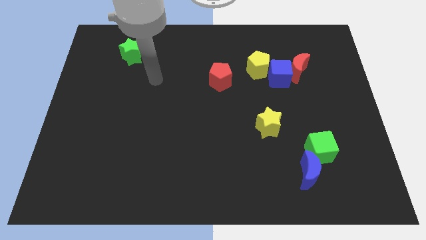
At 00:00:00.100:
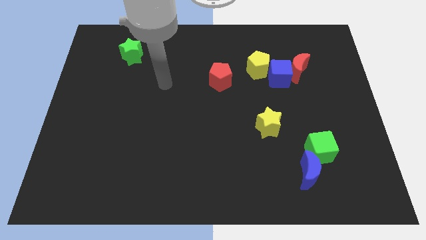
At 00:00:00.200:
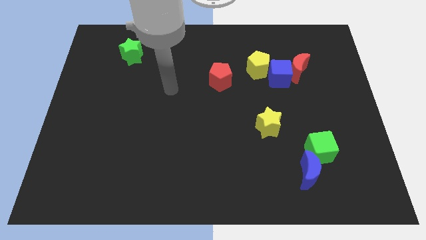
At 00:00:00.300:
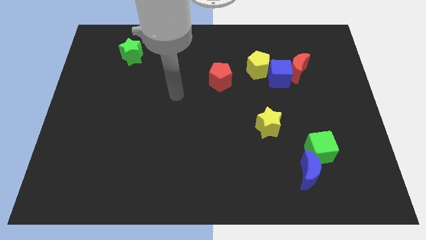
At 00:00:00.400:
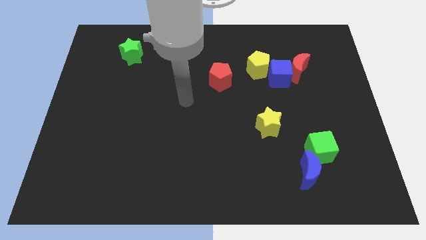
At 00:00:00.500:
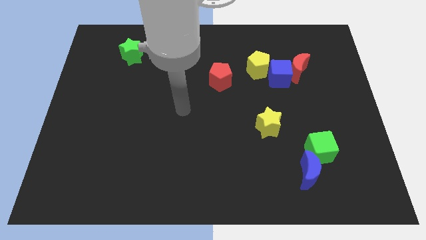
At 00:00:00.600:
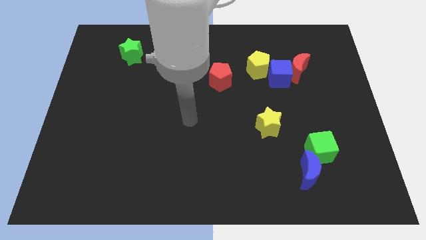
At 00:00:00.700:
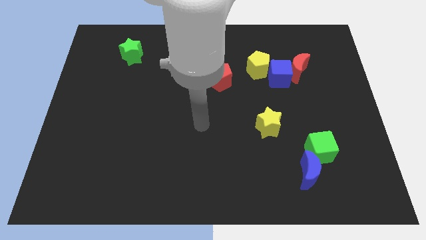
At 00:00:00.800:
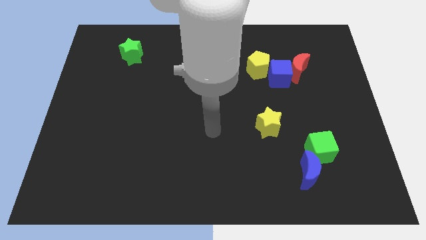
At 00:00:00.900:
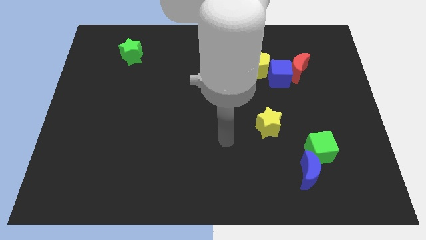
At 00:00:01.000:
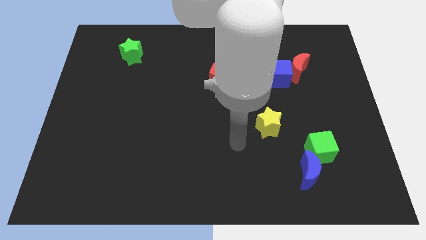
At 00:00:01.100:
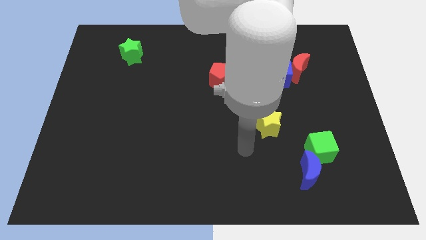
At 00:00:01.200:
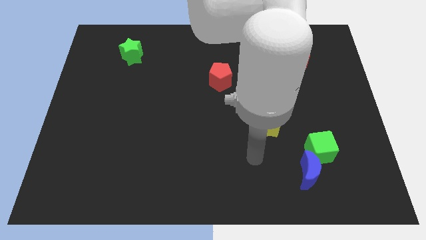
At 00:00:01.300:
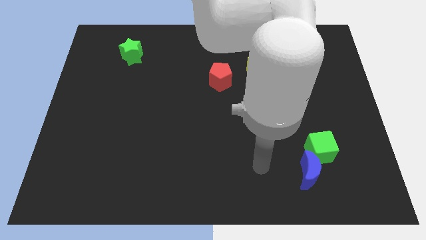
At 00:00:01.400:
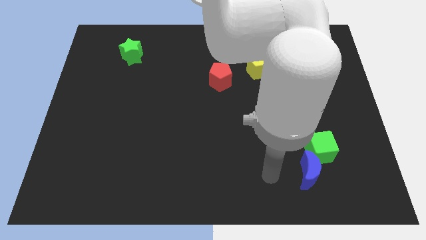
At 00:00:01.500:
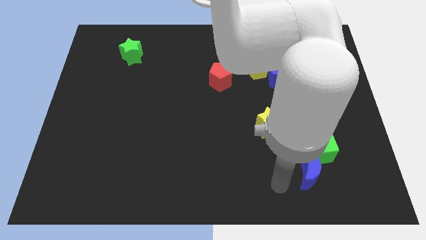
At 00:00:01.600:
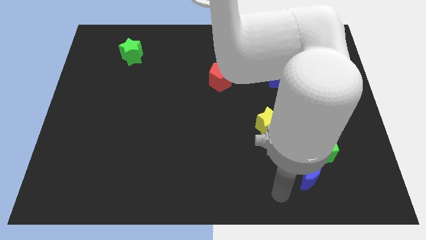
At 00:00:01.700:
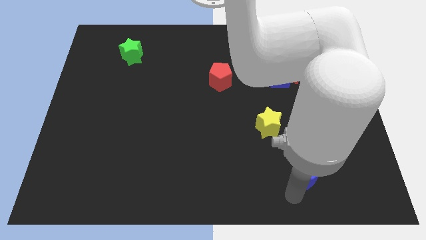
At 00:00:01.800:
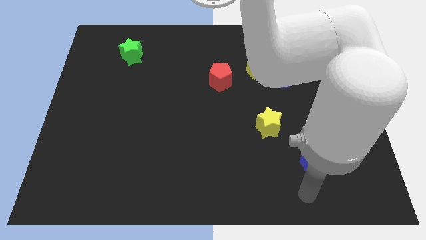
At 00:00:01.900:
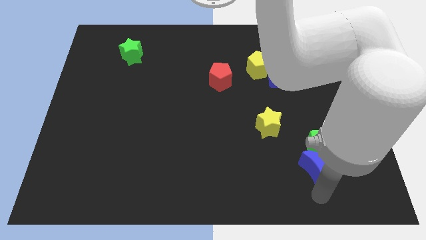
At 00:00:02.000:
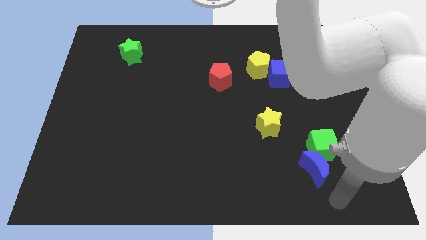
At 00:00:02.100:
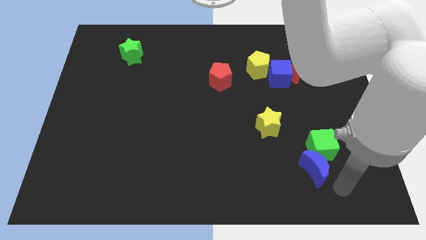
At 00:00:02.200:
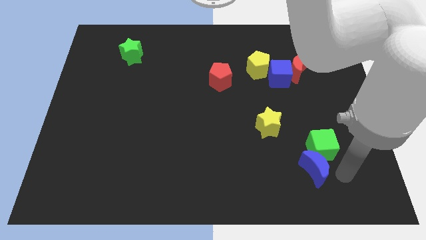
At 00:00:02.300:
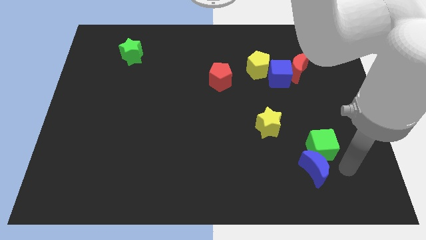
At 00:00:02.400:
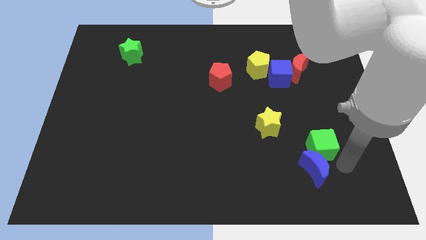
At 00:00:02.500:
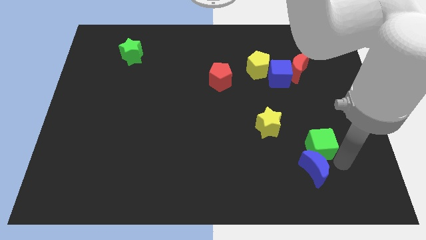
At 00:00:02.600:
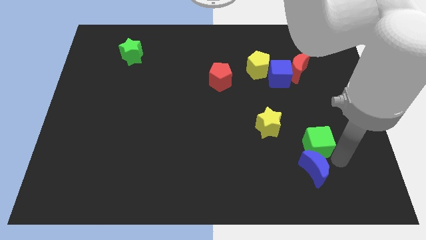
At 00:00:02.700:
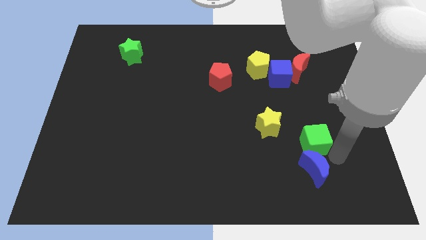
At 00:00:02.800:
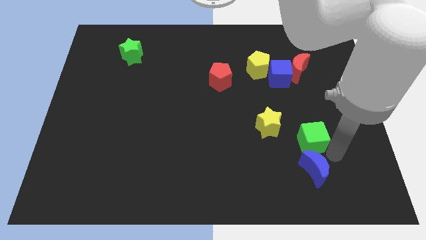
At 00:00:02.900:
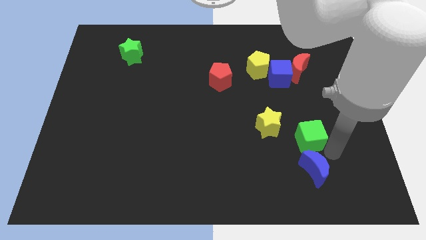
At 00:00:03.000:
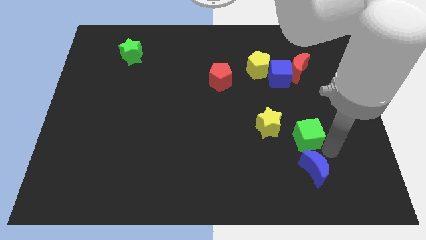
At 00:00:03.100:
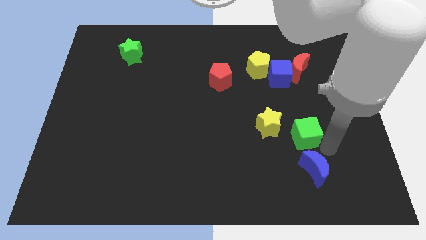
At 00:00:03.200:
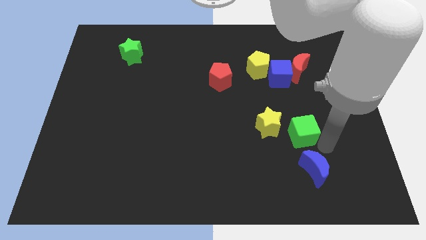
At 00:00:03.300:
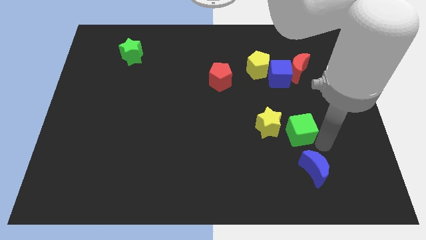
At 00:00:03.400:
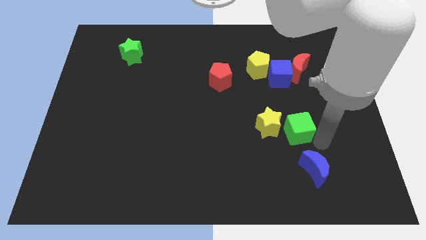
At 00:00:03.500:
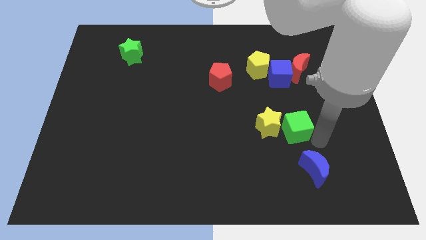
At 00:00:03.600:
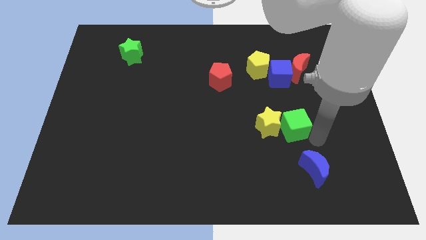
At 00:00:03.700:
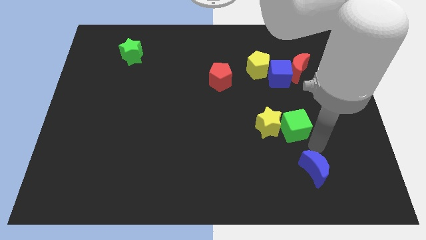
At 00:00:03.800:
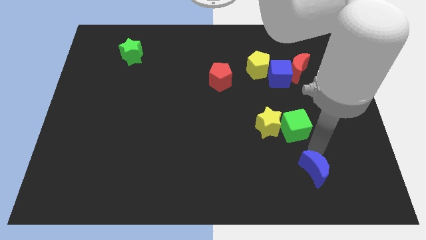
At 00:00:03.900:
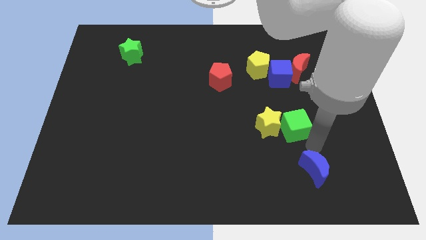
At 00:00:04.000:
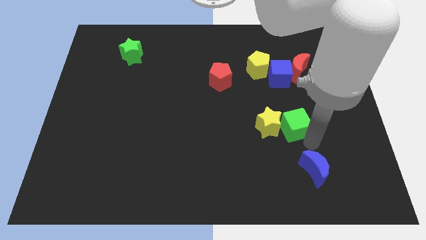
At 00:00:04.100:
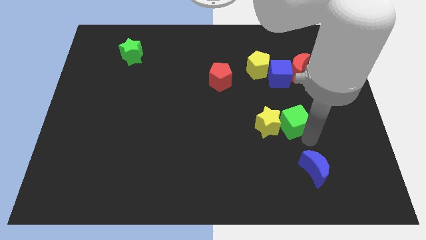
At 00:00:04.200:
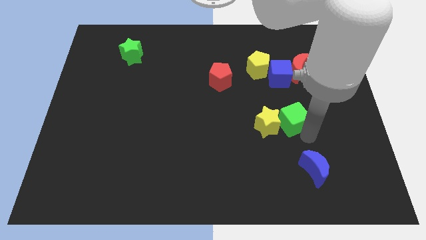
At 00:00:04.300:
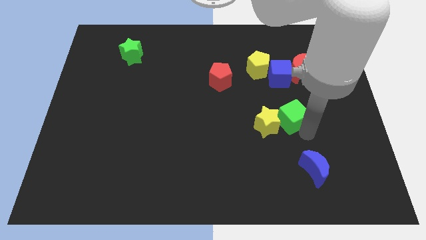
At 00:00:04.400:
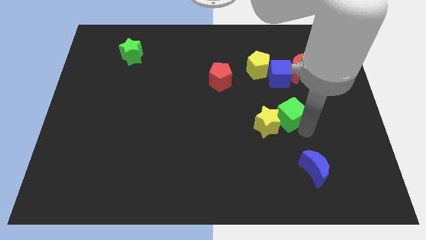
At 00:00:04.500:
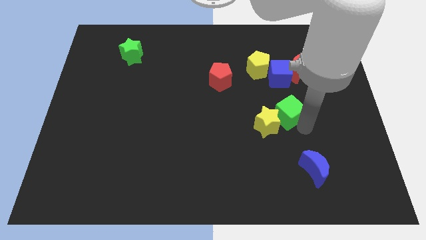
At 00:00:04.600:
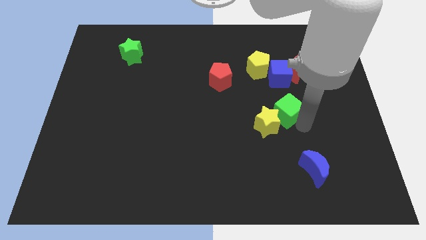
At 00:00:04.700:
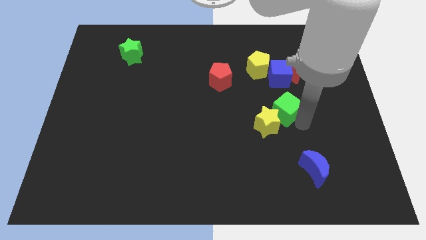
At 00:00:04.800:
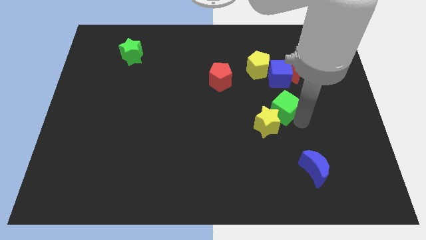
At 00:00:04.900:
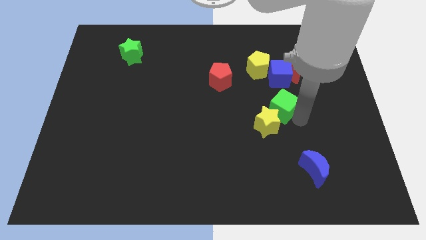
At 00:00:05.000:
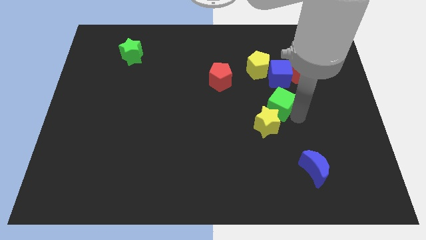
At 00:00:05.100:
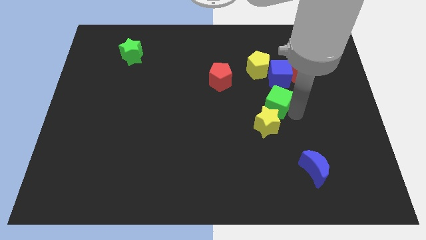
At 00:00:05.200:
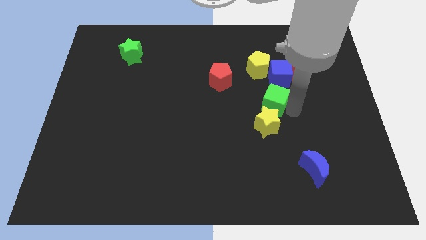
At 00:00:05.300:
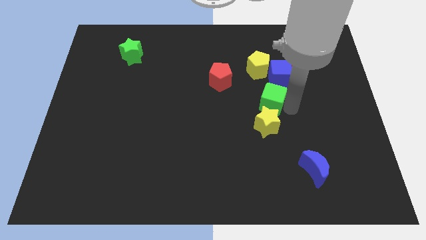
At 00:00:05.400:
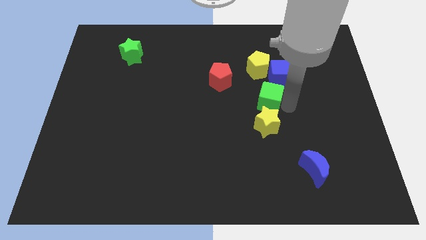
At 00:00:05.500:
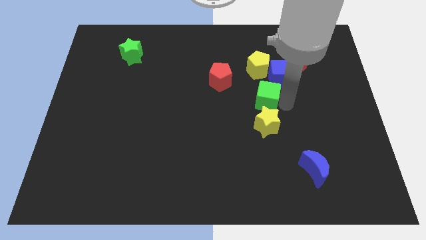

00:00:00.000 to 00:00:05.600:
move the green cube to the center

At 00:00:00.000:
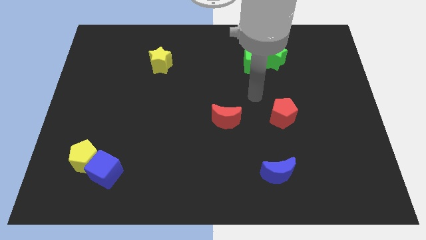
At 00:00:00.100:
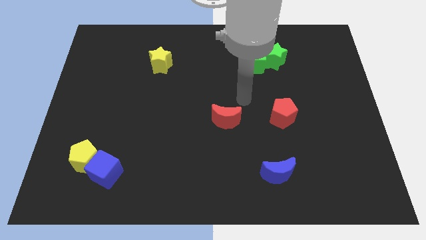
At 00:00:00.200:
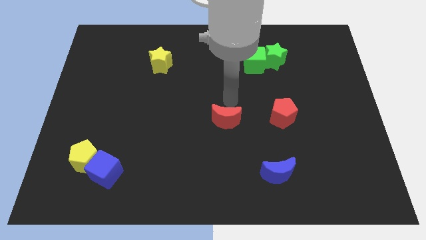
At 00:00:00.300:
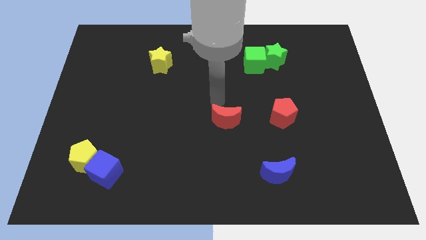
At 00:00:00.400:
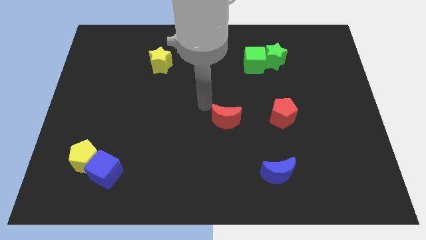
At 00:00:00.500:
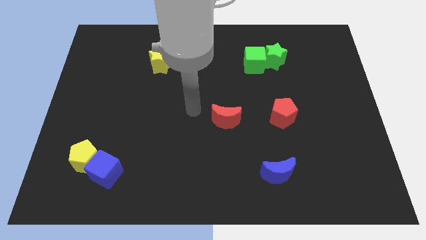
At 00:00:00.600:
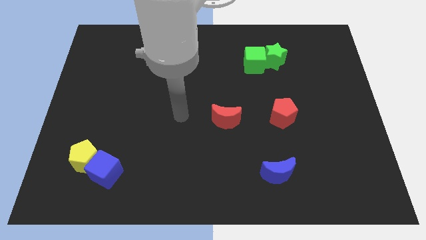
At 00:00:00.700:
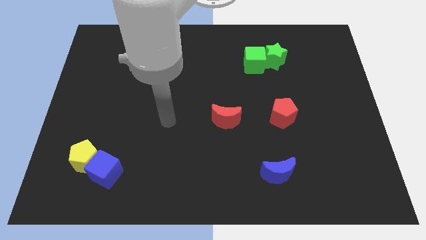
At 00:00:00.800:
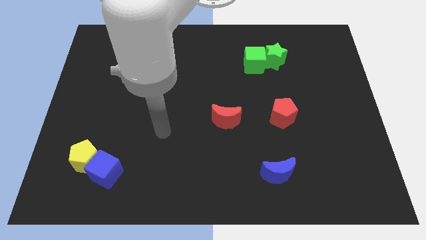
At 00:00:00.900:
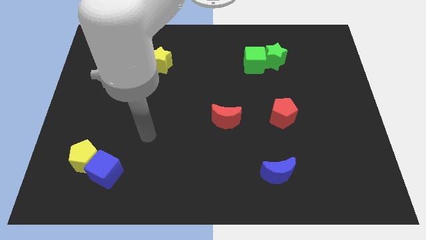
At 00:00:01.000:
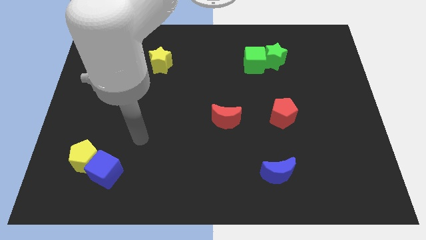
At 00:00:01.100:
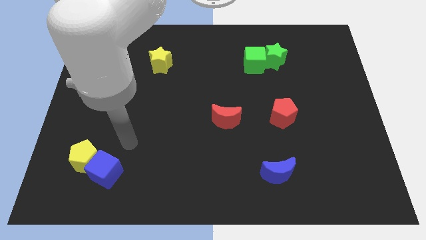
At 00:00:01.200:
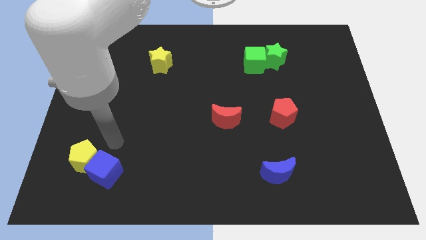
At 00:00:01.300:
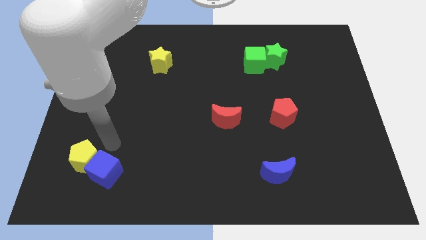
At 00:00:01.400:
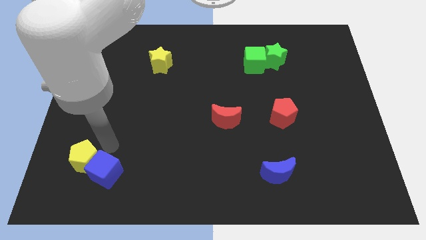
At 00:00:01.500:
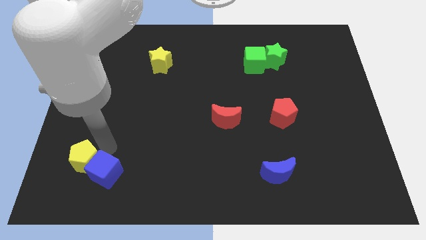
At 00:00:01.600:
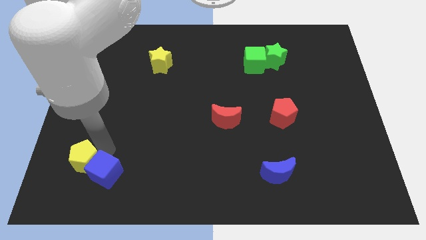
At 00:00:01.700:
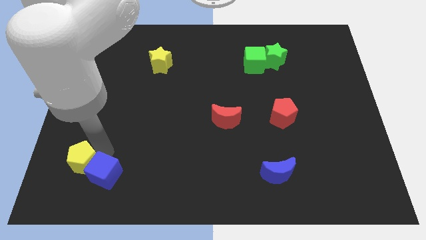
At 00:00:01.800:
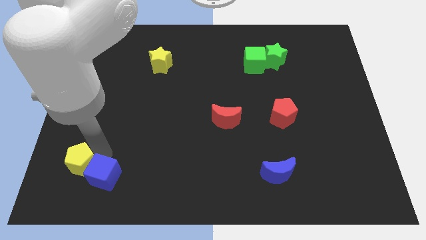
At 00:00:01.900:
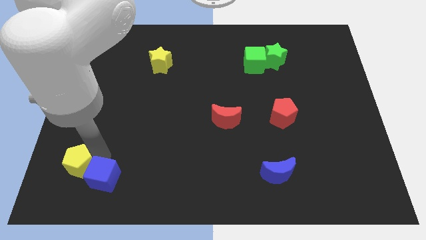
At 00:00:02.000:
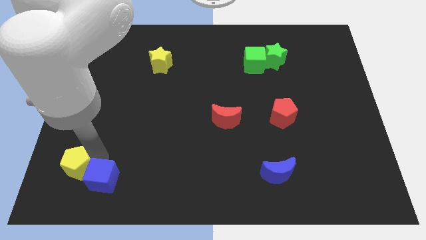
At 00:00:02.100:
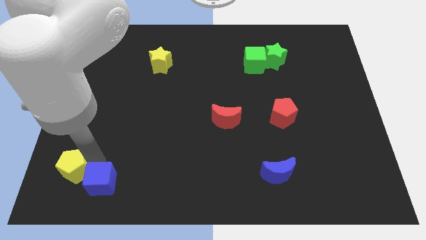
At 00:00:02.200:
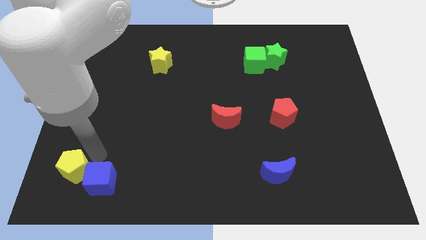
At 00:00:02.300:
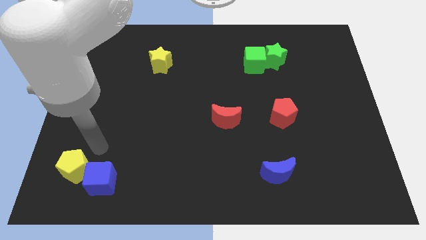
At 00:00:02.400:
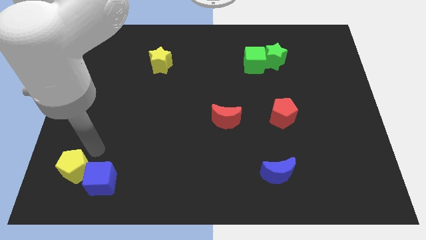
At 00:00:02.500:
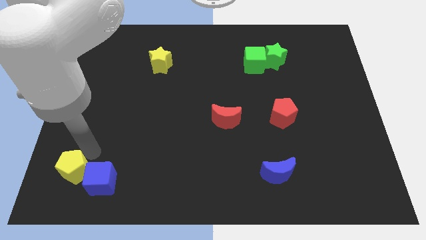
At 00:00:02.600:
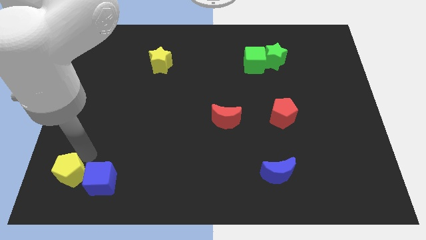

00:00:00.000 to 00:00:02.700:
slide the yellow pentagon to the bottom left
